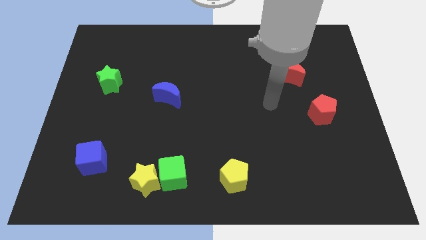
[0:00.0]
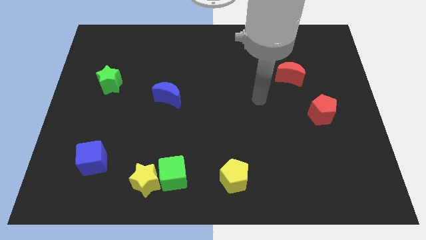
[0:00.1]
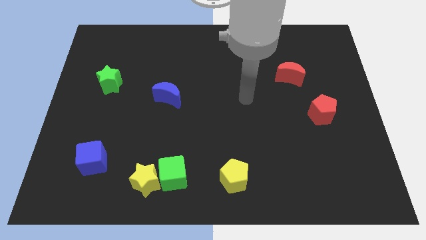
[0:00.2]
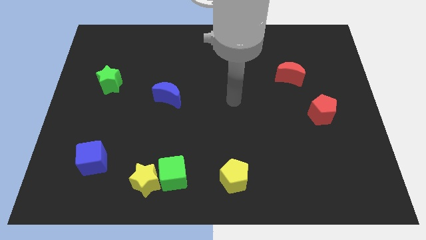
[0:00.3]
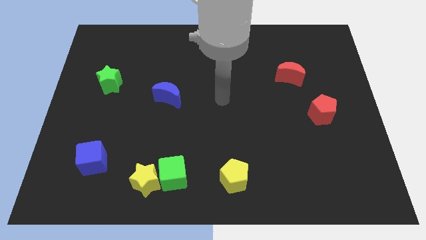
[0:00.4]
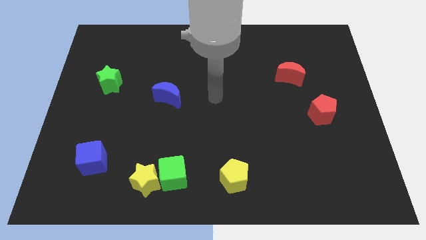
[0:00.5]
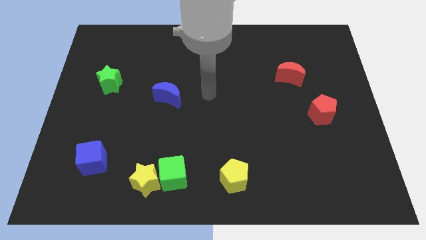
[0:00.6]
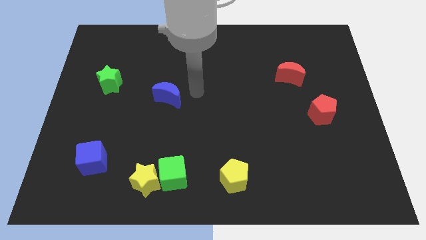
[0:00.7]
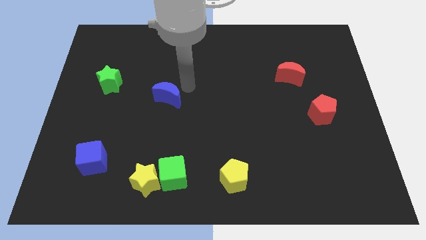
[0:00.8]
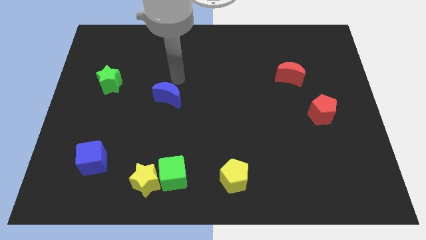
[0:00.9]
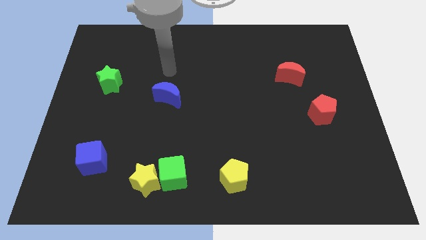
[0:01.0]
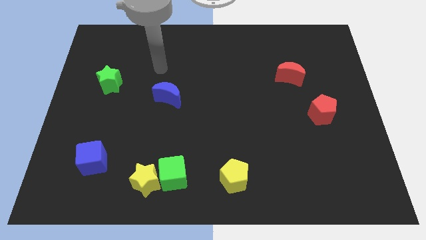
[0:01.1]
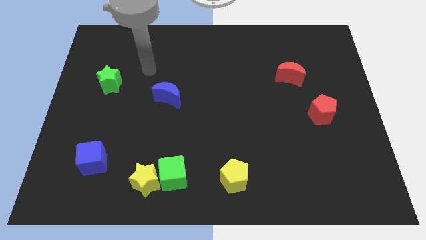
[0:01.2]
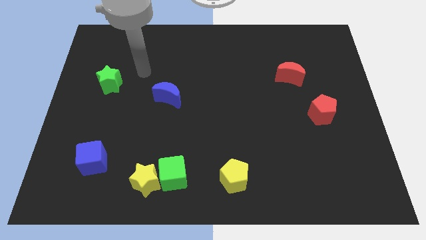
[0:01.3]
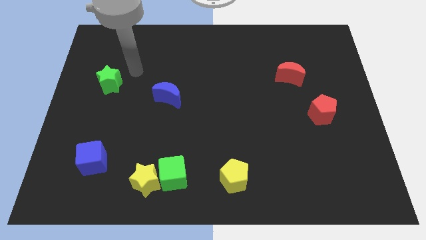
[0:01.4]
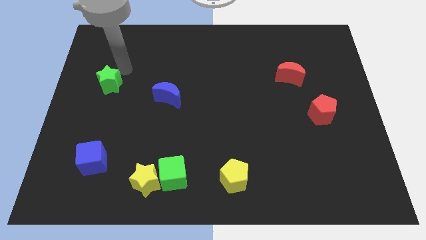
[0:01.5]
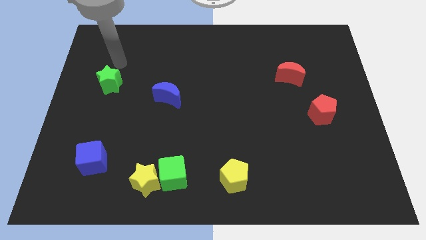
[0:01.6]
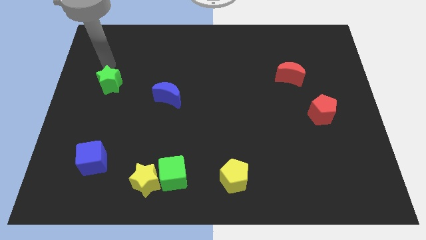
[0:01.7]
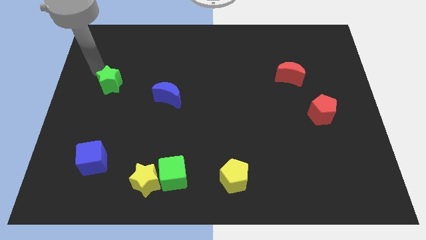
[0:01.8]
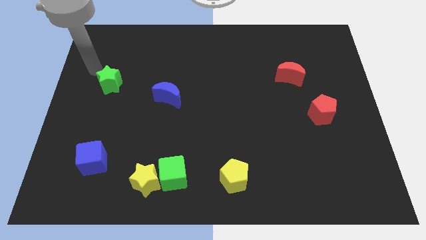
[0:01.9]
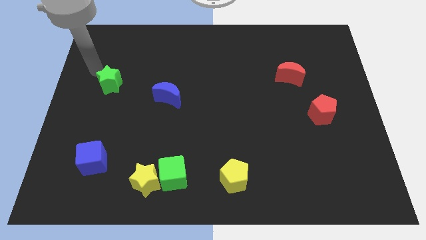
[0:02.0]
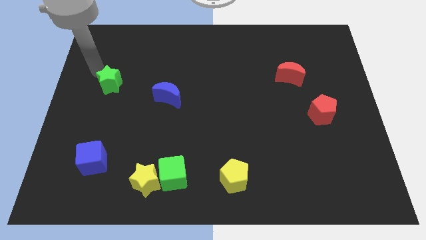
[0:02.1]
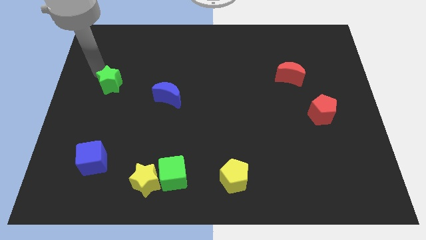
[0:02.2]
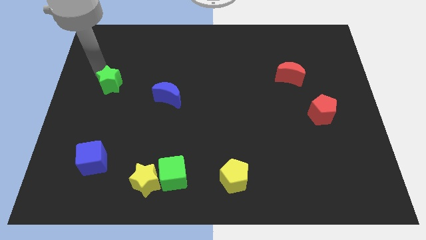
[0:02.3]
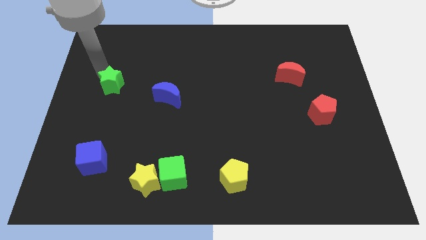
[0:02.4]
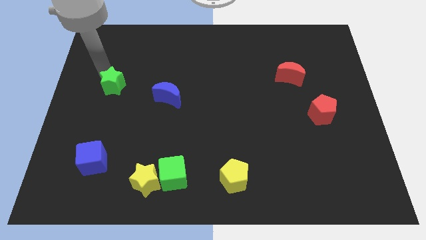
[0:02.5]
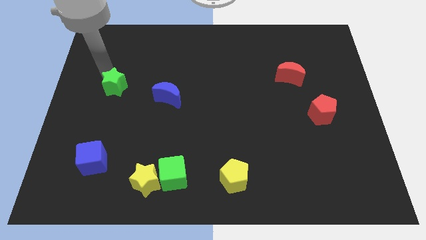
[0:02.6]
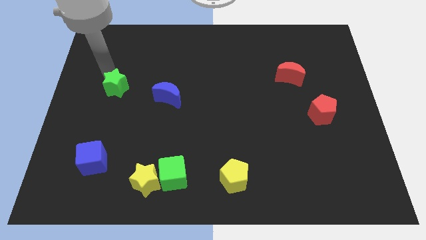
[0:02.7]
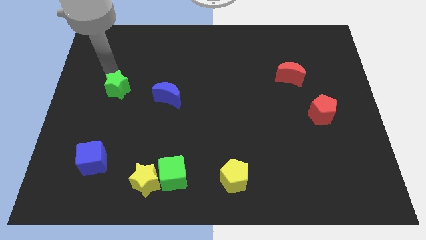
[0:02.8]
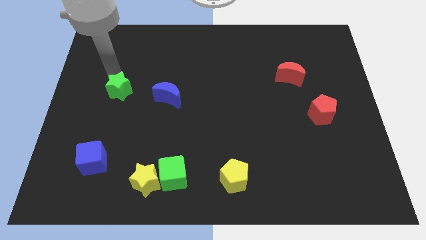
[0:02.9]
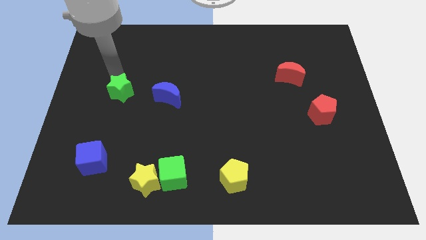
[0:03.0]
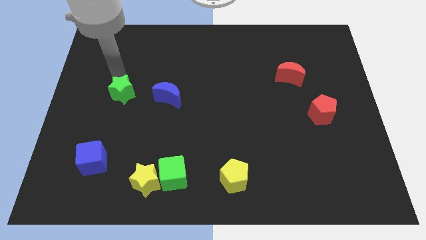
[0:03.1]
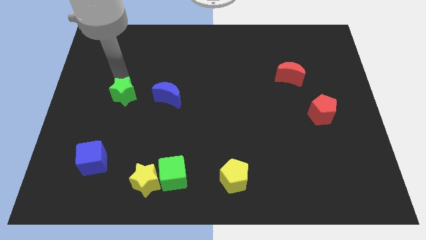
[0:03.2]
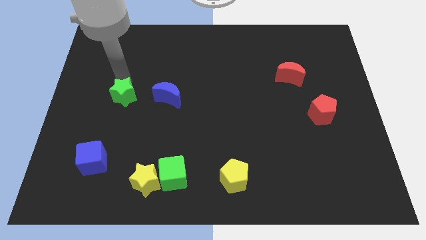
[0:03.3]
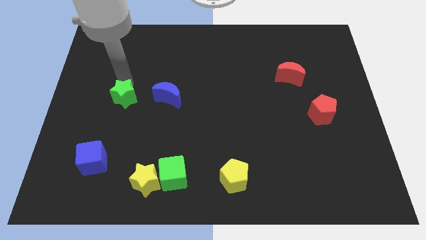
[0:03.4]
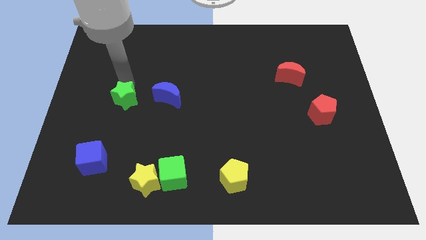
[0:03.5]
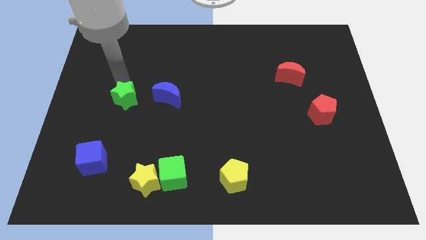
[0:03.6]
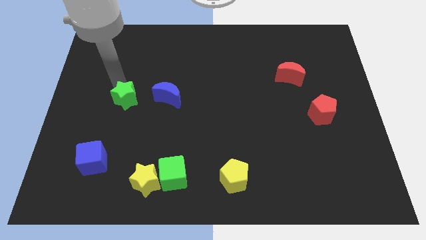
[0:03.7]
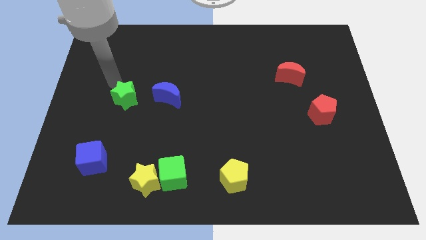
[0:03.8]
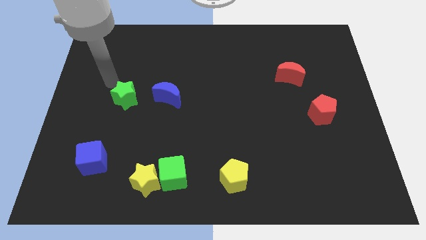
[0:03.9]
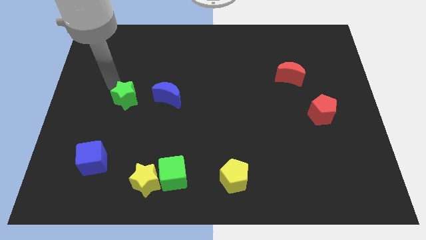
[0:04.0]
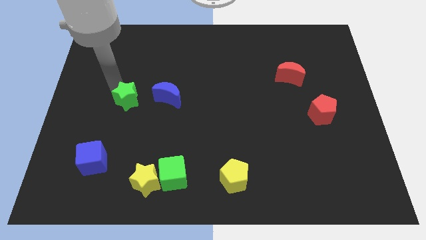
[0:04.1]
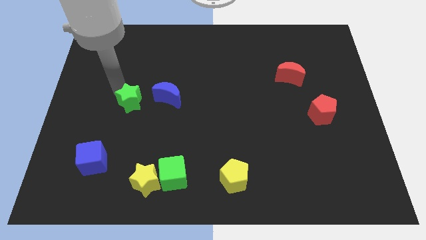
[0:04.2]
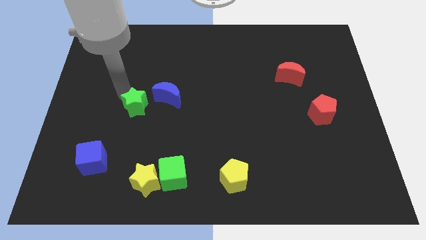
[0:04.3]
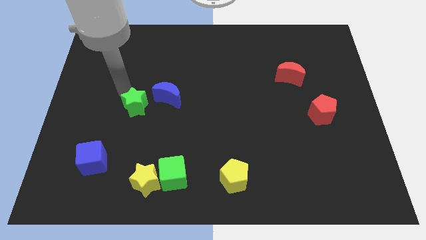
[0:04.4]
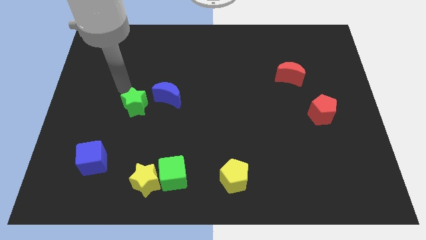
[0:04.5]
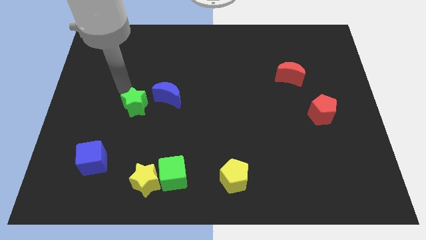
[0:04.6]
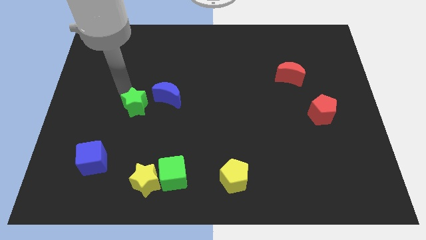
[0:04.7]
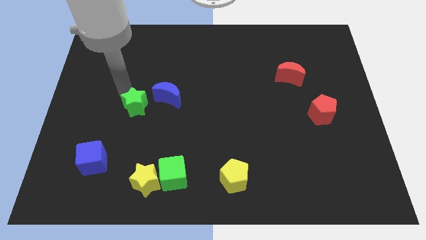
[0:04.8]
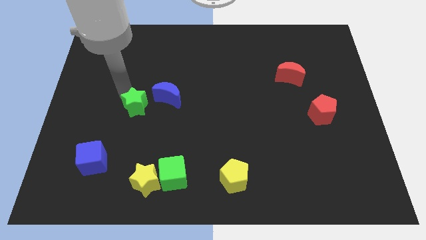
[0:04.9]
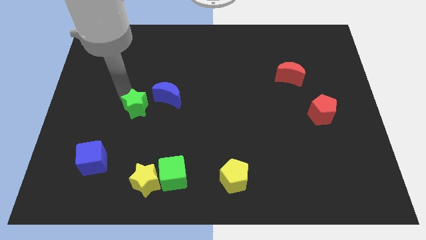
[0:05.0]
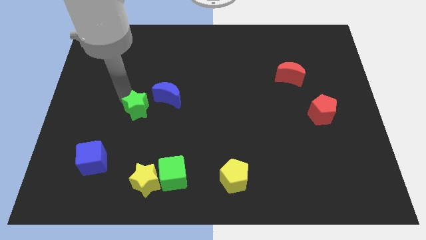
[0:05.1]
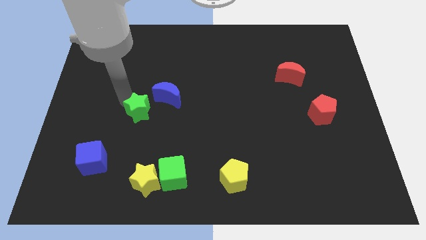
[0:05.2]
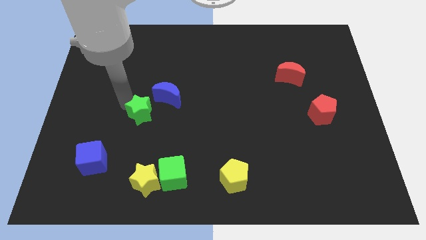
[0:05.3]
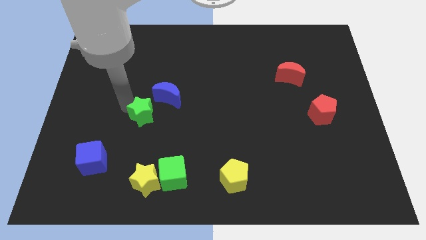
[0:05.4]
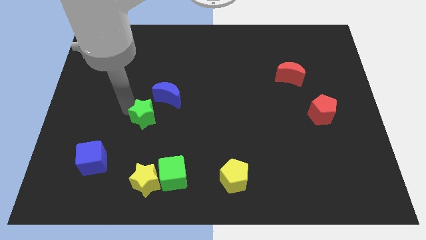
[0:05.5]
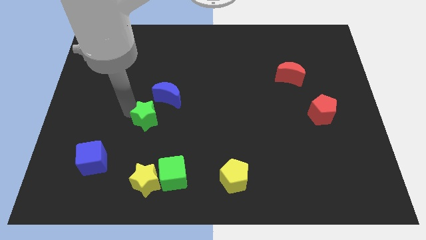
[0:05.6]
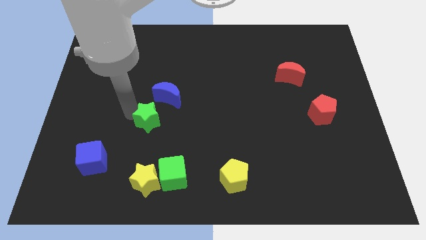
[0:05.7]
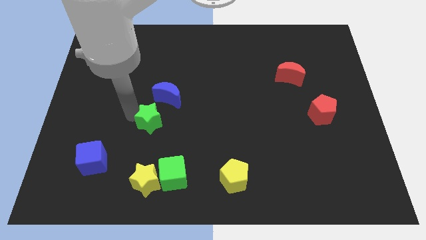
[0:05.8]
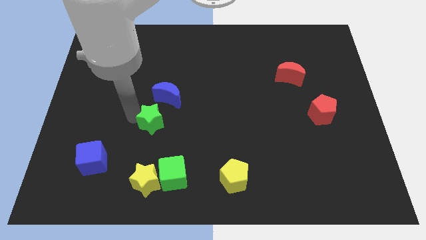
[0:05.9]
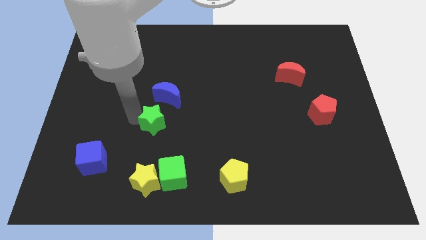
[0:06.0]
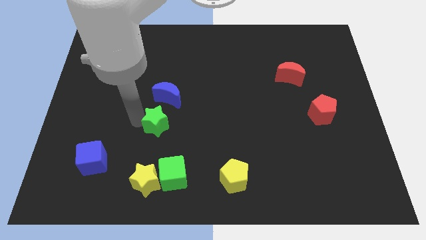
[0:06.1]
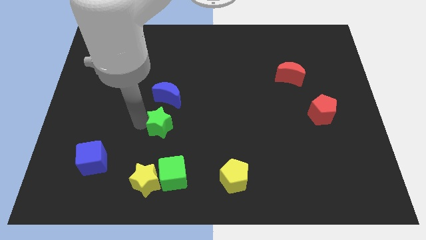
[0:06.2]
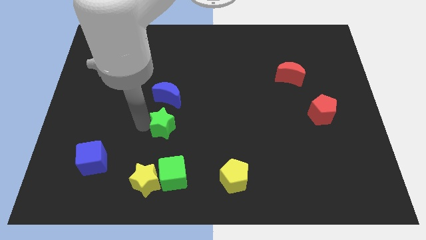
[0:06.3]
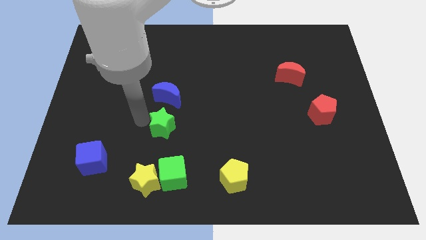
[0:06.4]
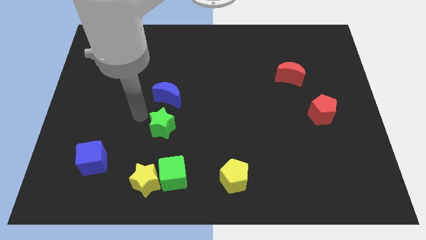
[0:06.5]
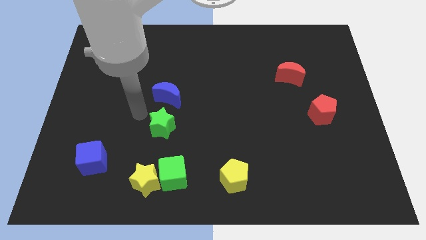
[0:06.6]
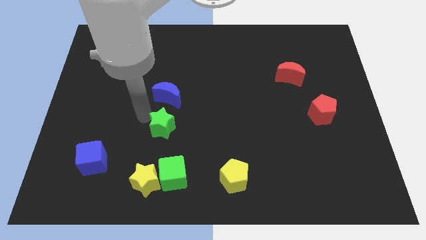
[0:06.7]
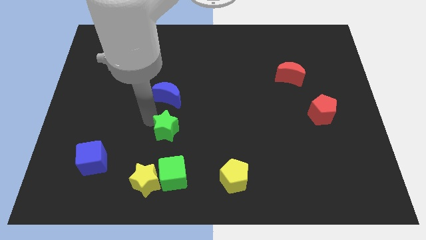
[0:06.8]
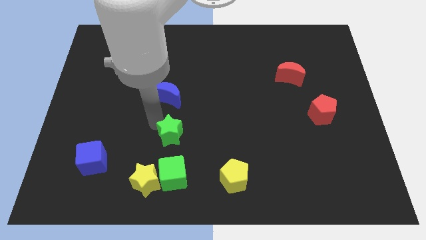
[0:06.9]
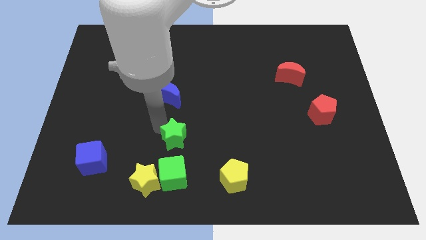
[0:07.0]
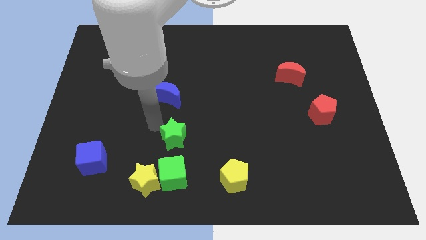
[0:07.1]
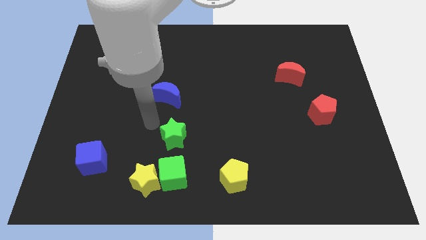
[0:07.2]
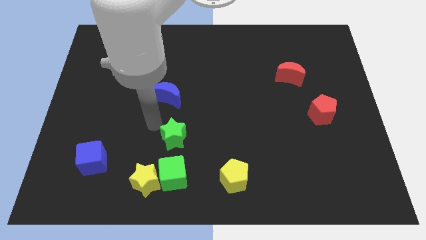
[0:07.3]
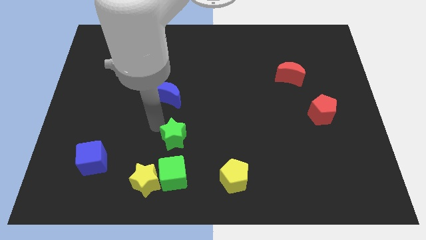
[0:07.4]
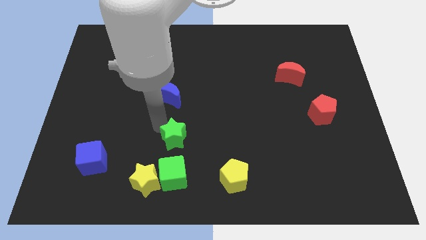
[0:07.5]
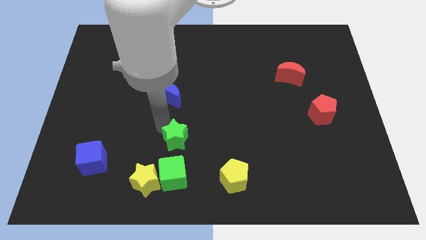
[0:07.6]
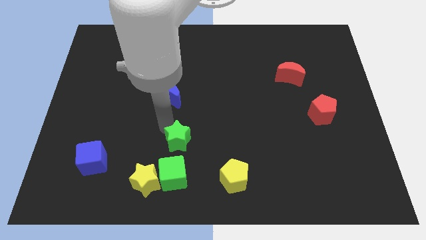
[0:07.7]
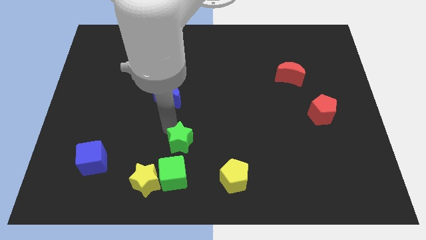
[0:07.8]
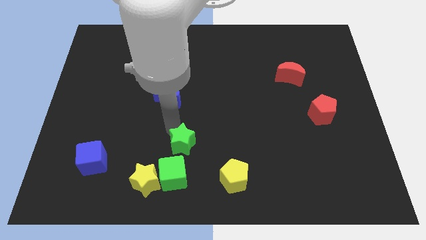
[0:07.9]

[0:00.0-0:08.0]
slide the green star diagonally up and to the right of the green cube
